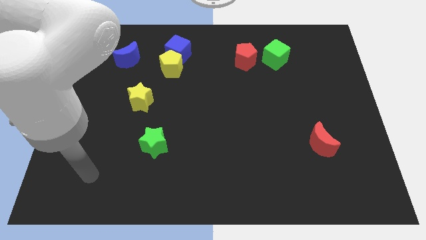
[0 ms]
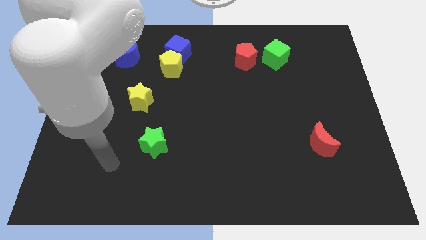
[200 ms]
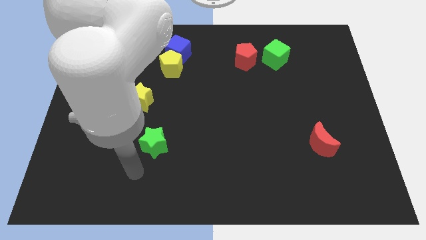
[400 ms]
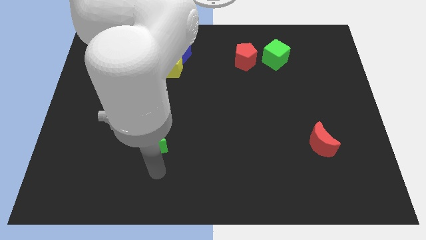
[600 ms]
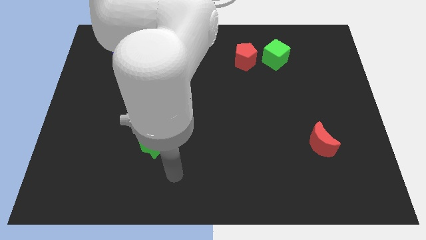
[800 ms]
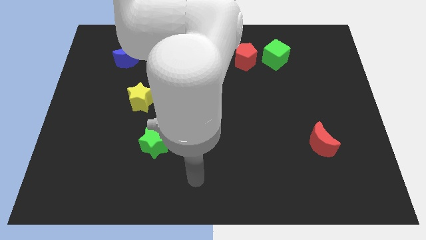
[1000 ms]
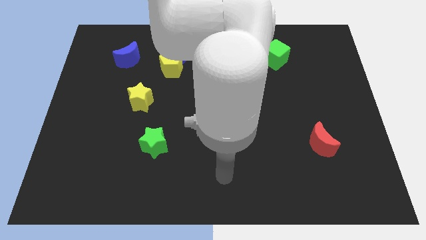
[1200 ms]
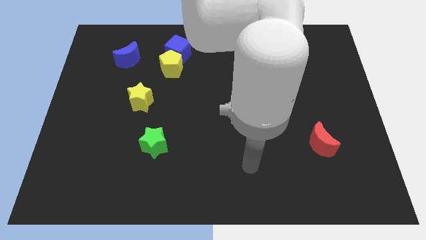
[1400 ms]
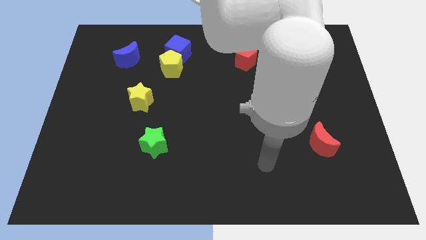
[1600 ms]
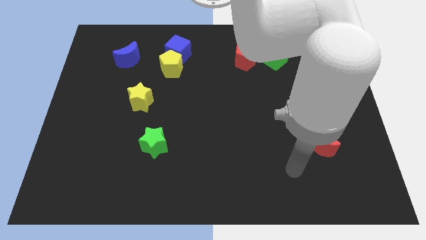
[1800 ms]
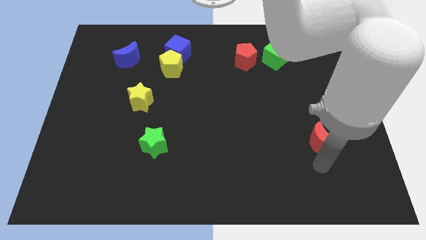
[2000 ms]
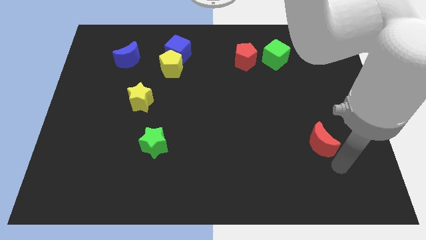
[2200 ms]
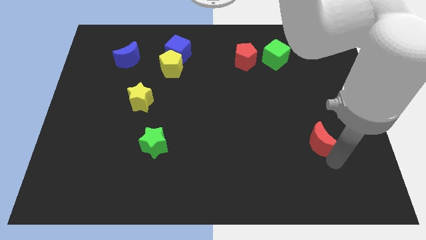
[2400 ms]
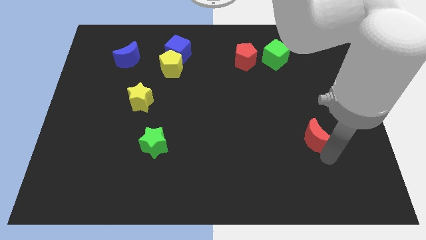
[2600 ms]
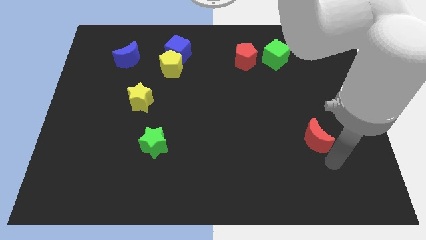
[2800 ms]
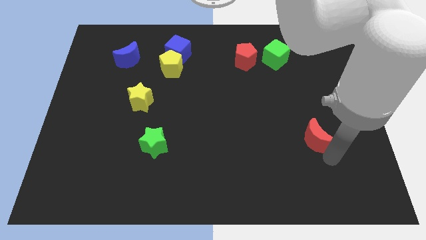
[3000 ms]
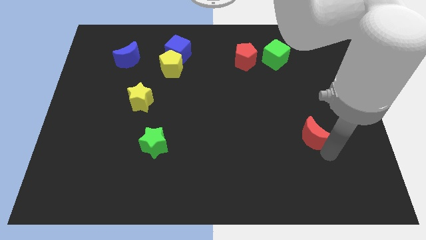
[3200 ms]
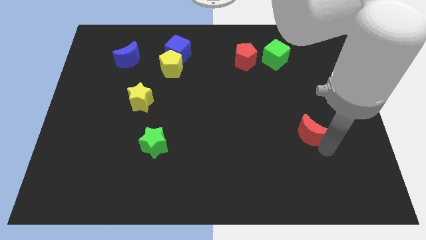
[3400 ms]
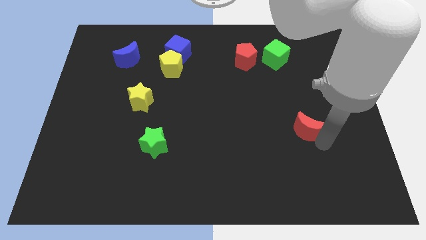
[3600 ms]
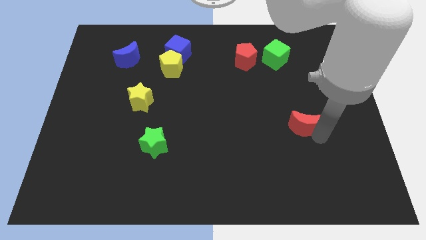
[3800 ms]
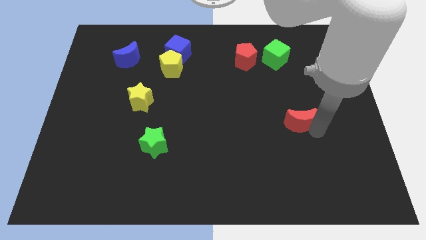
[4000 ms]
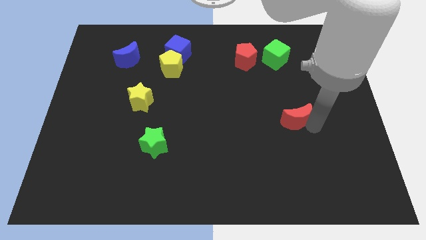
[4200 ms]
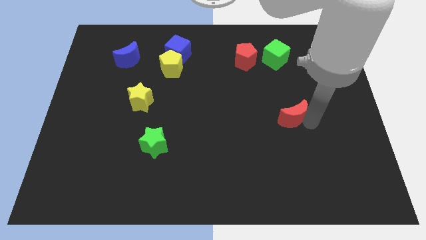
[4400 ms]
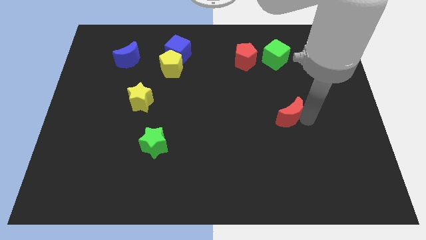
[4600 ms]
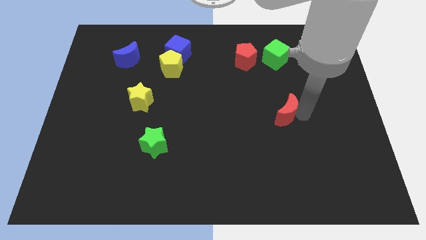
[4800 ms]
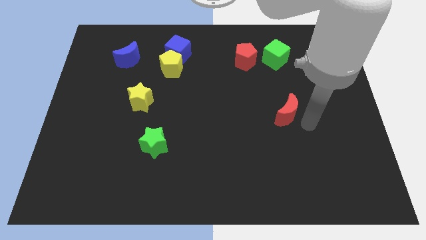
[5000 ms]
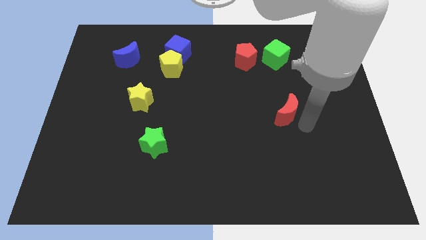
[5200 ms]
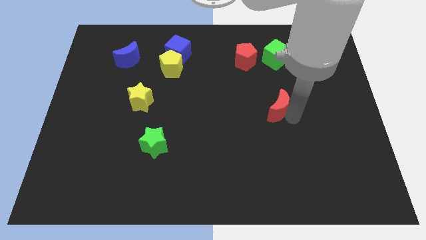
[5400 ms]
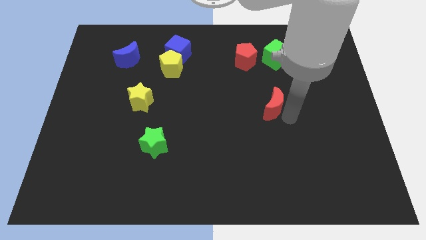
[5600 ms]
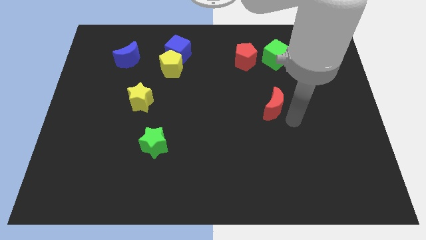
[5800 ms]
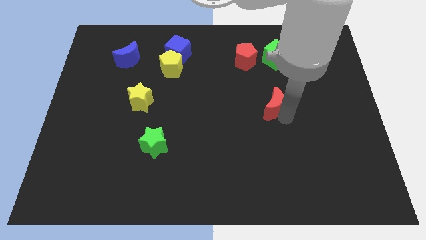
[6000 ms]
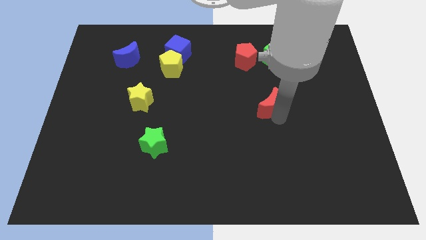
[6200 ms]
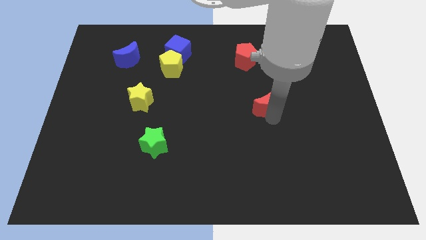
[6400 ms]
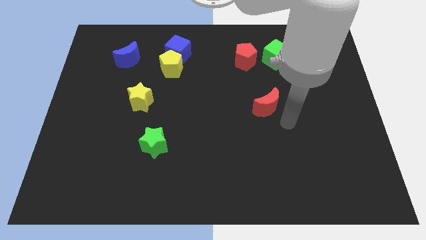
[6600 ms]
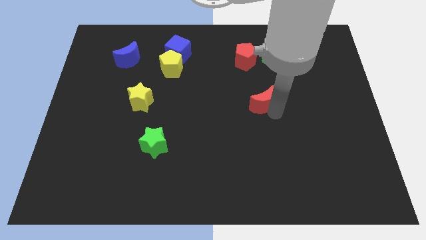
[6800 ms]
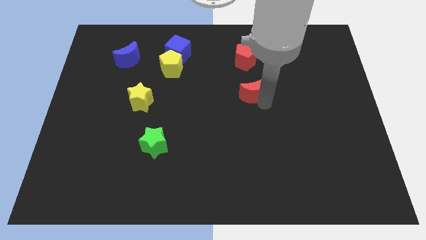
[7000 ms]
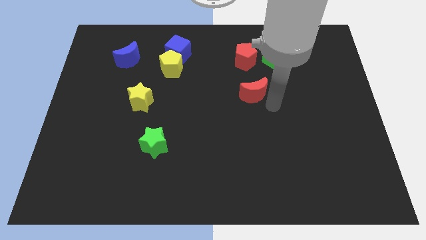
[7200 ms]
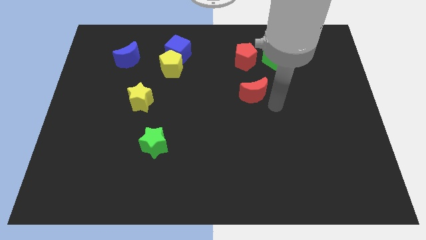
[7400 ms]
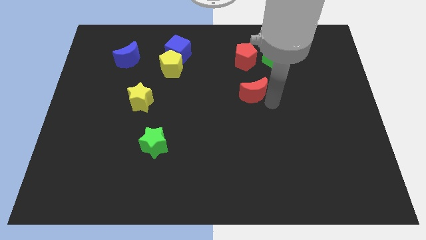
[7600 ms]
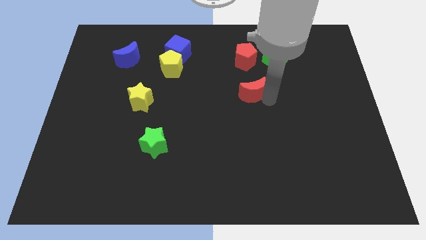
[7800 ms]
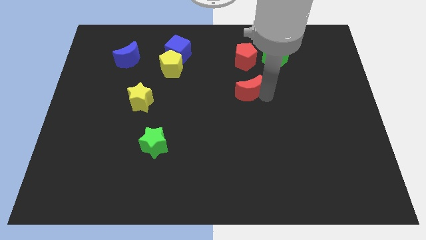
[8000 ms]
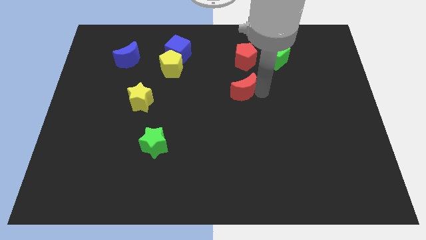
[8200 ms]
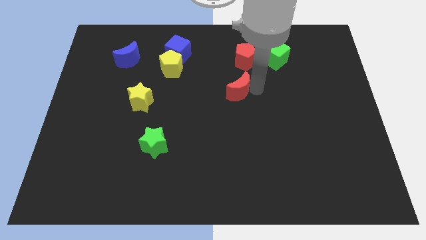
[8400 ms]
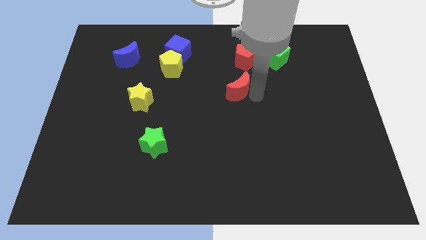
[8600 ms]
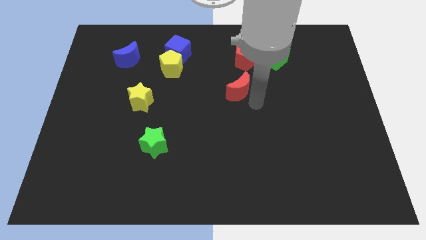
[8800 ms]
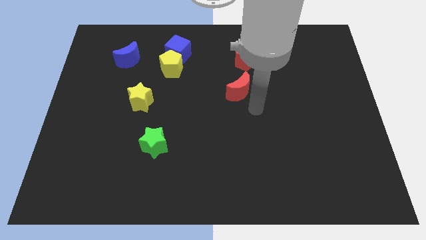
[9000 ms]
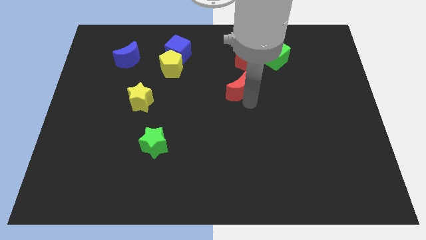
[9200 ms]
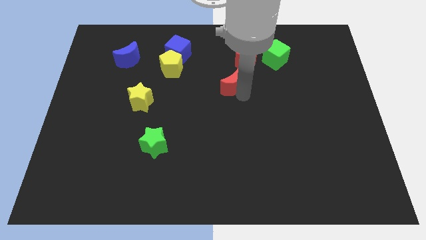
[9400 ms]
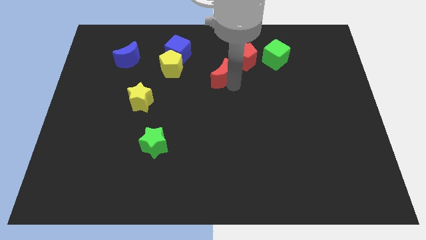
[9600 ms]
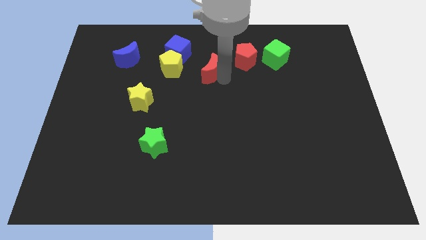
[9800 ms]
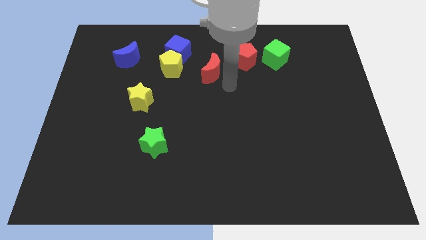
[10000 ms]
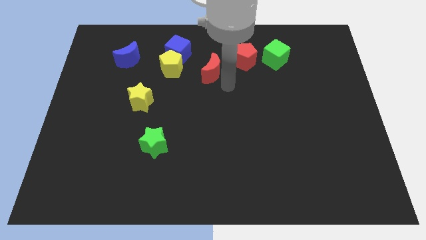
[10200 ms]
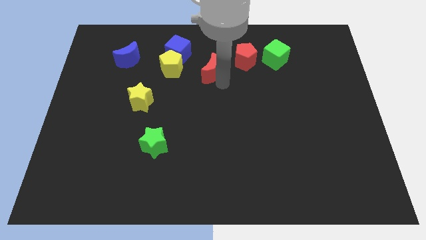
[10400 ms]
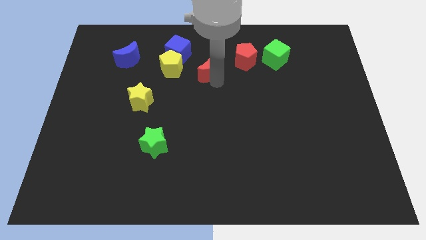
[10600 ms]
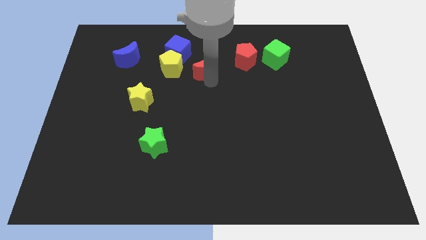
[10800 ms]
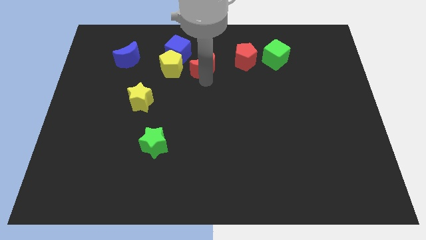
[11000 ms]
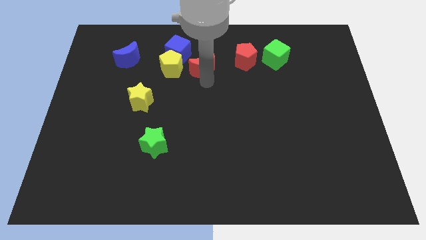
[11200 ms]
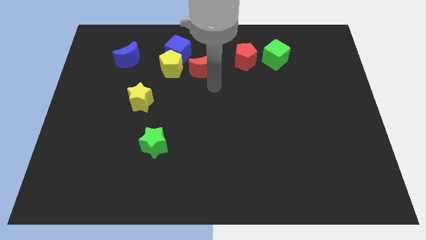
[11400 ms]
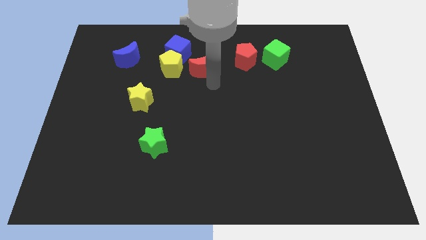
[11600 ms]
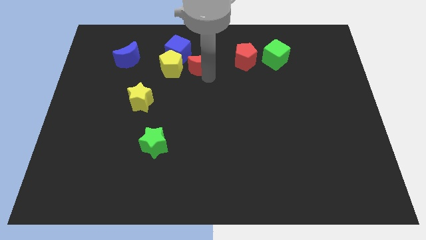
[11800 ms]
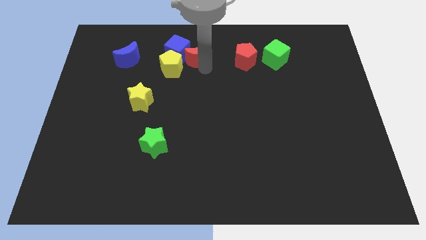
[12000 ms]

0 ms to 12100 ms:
push the red moon to the blue cube
